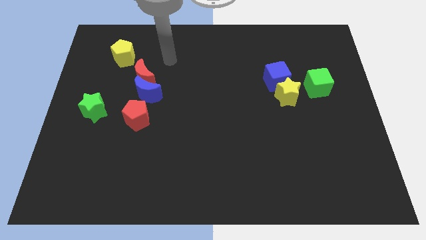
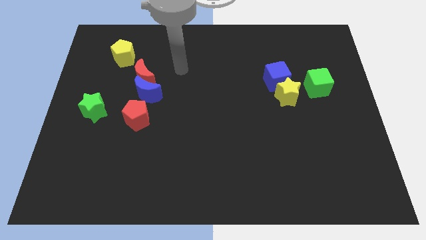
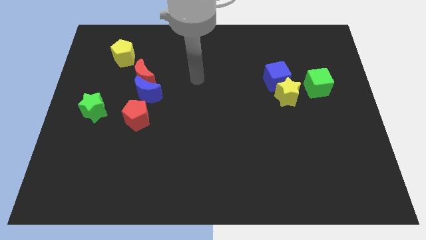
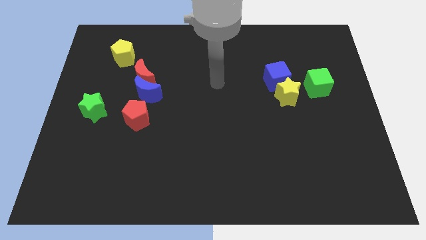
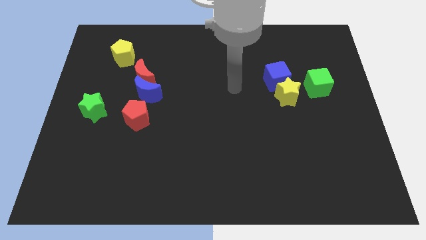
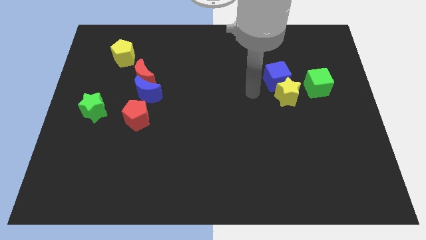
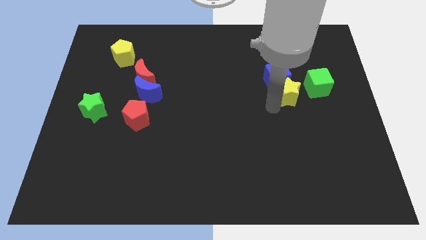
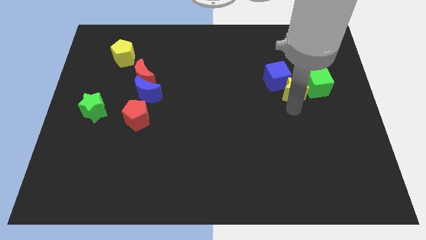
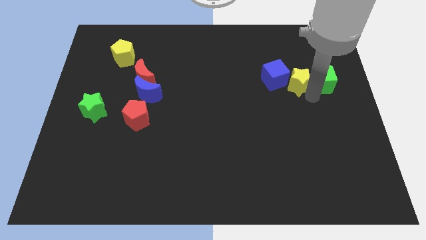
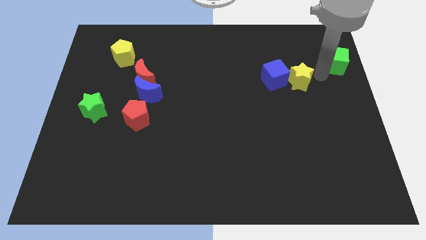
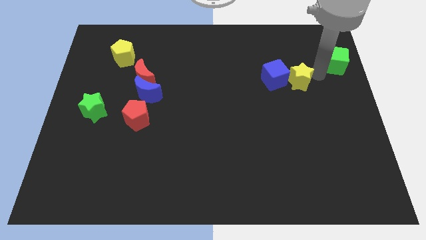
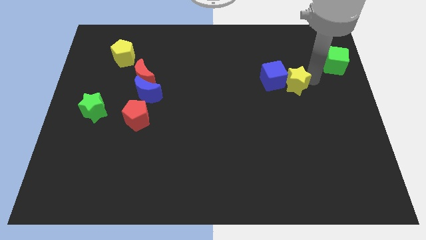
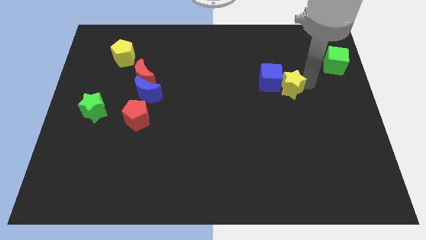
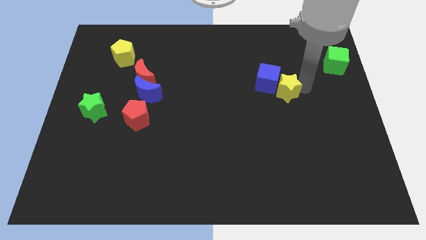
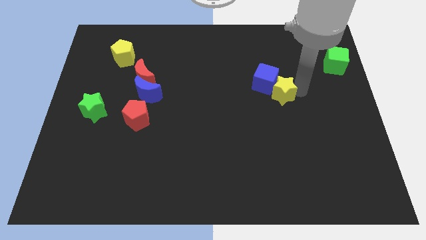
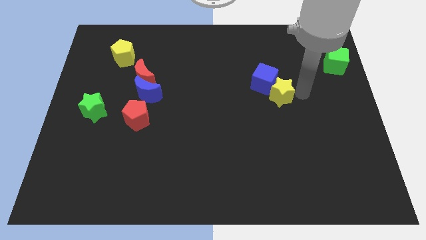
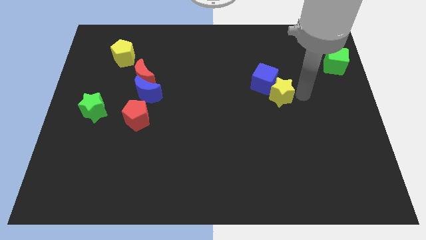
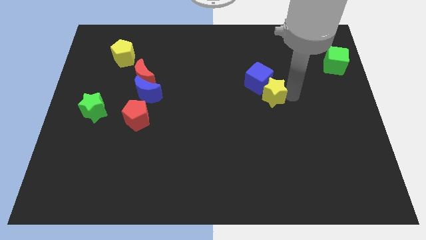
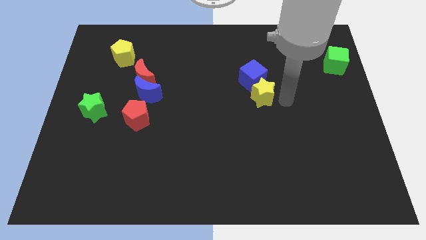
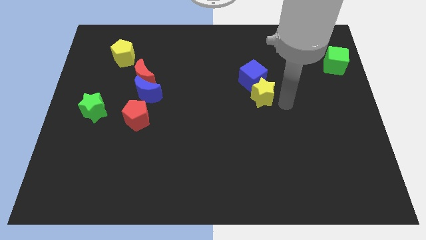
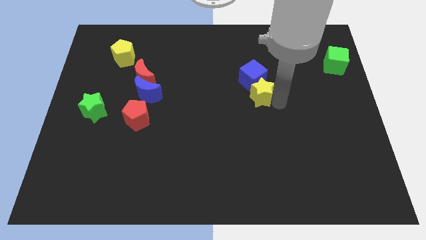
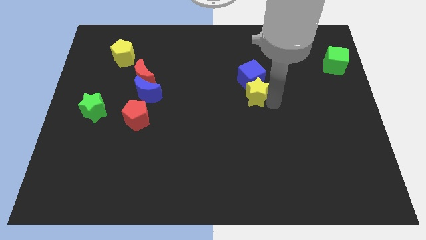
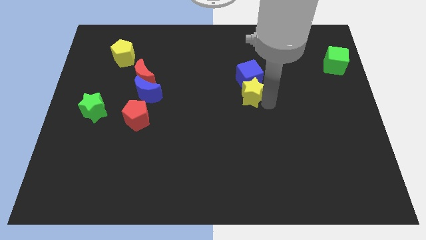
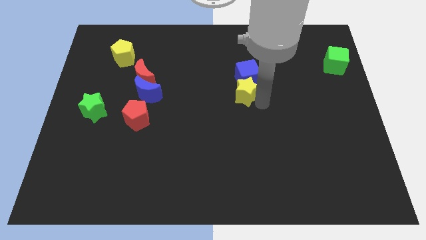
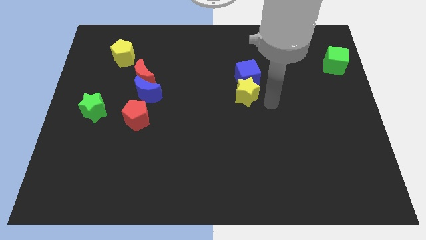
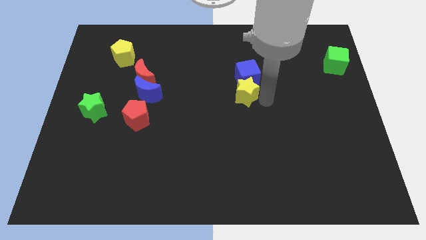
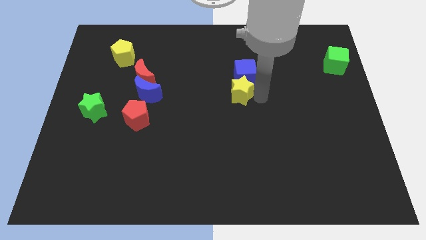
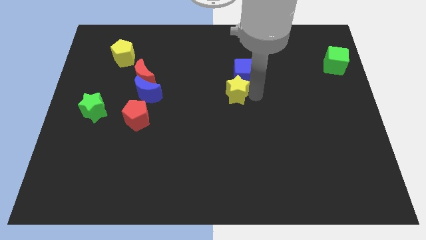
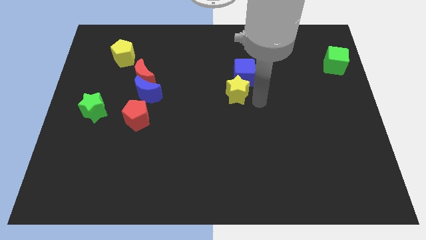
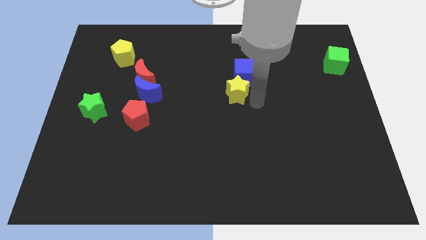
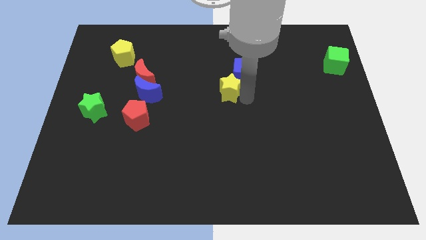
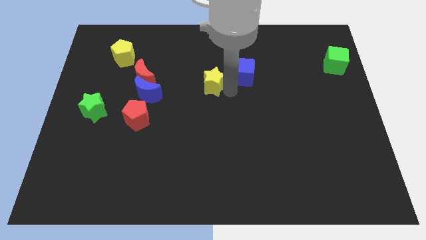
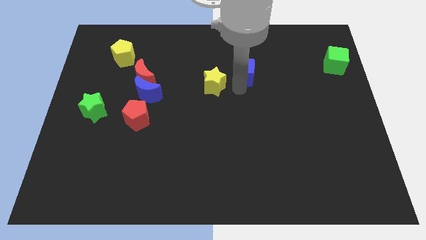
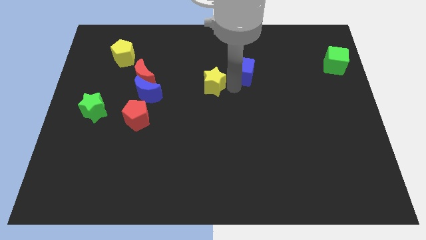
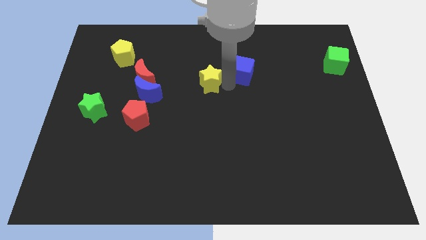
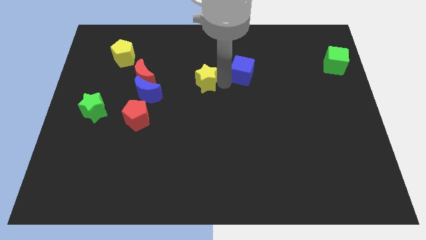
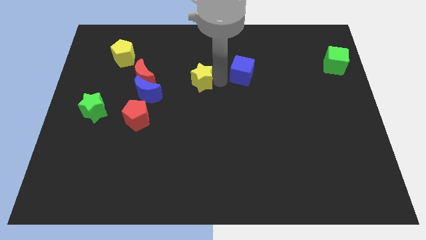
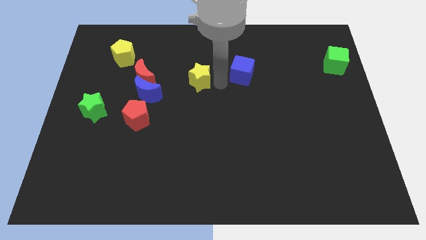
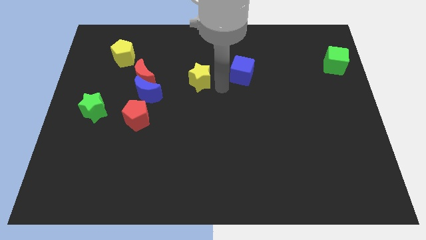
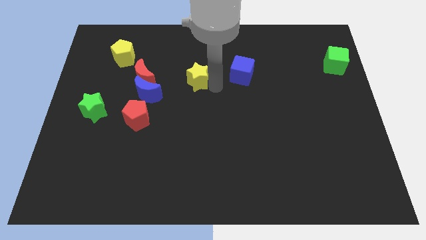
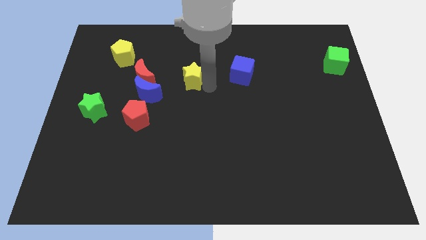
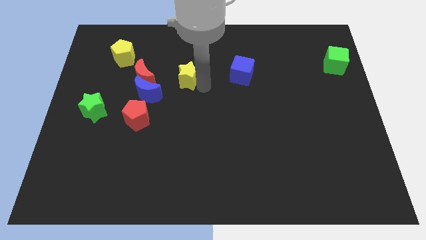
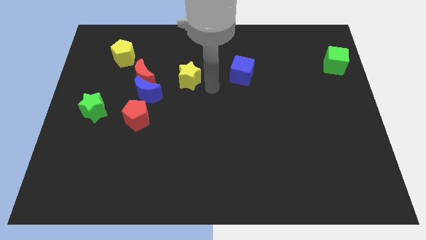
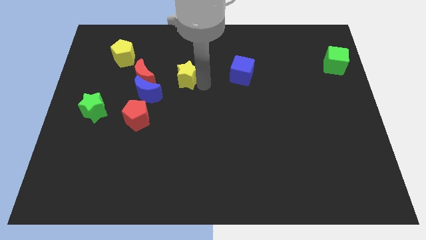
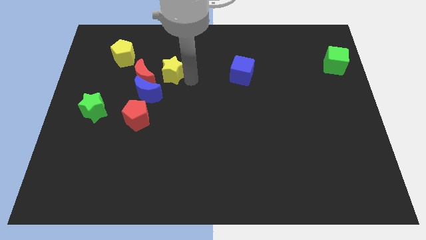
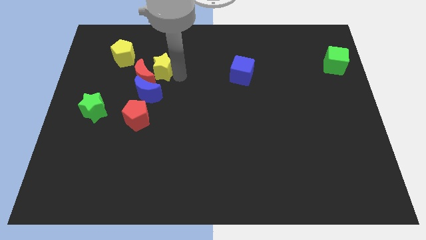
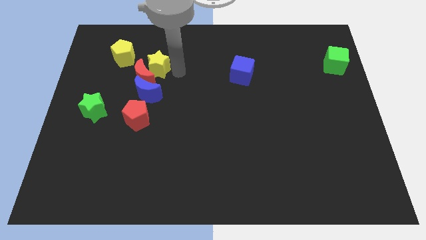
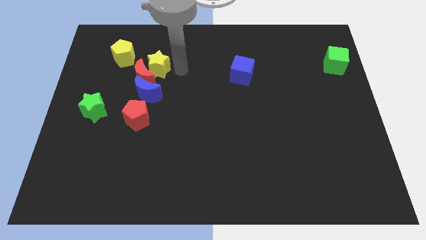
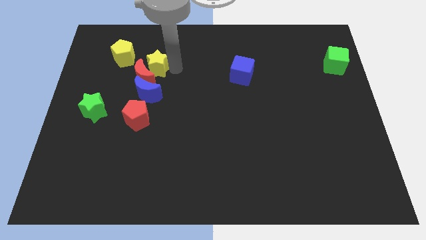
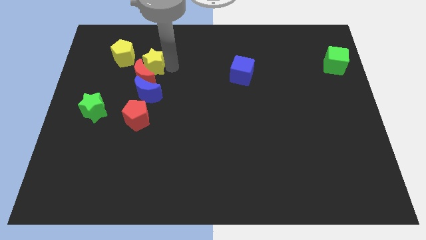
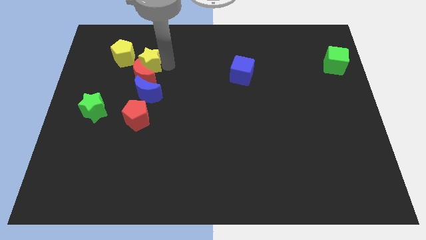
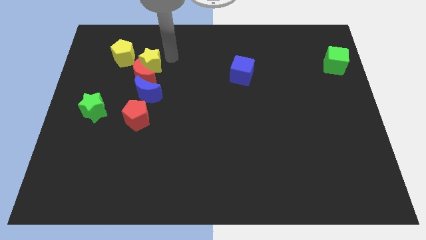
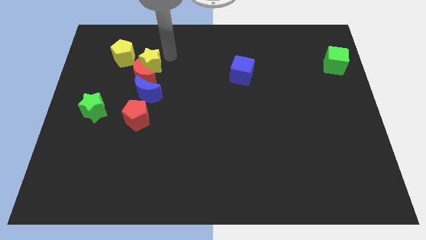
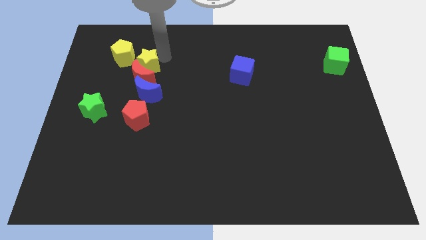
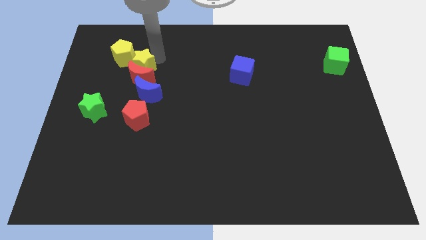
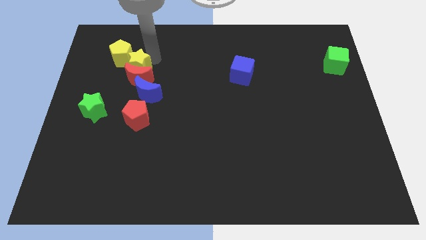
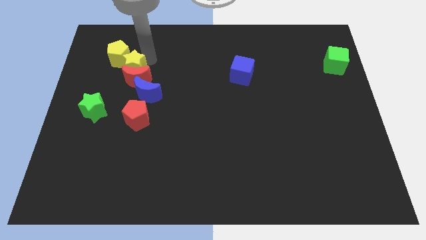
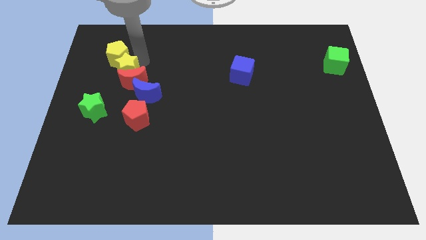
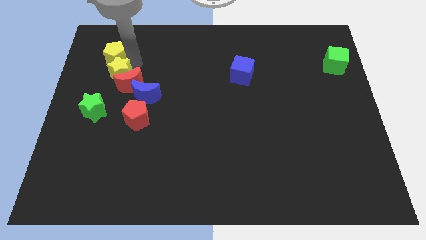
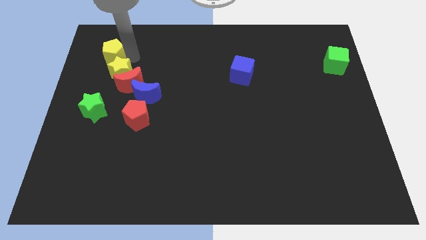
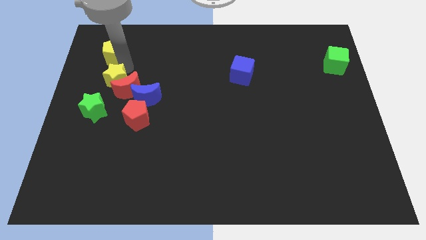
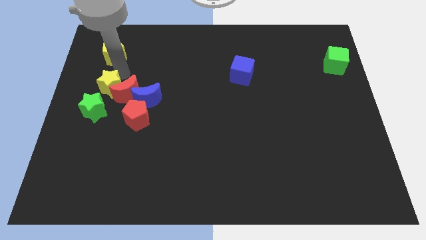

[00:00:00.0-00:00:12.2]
push the yellow star diagonally down and to the left of the red moon

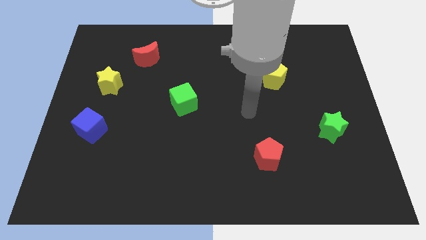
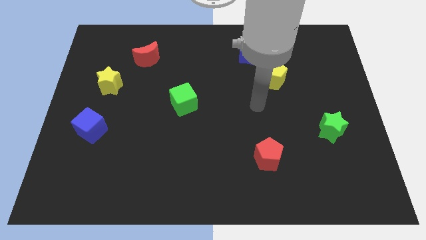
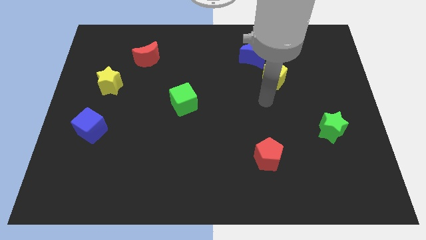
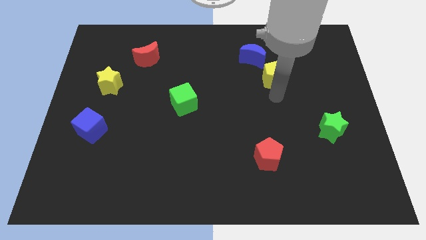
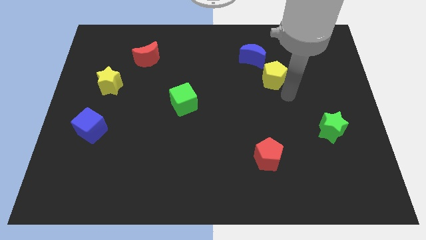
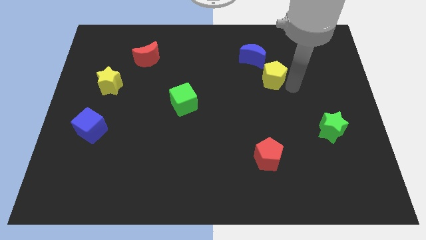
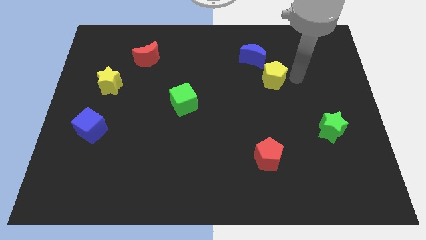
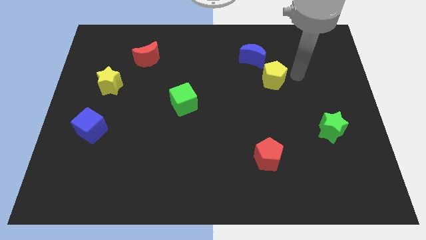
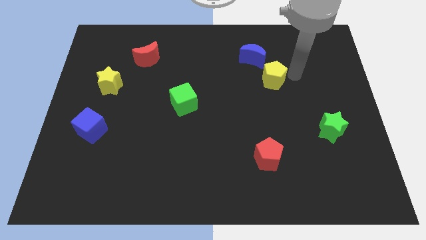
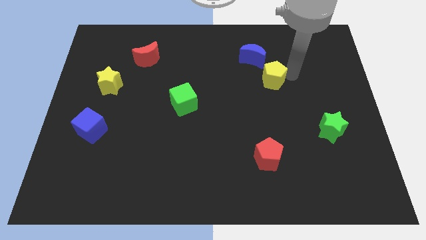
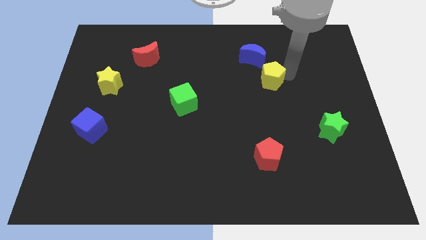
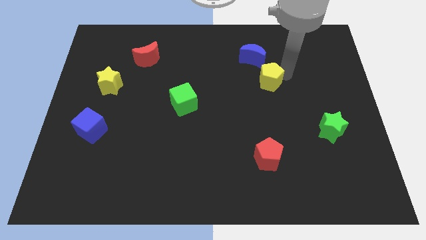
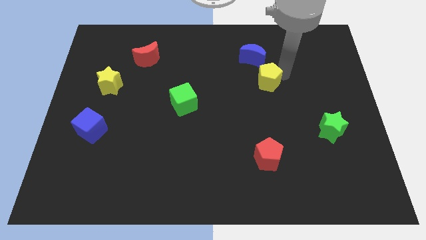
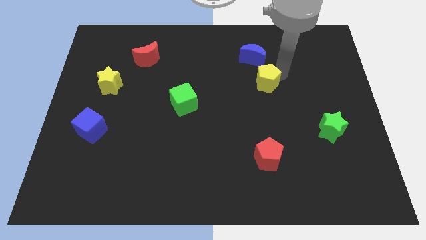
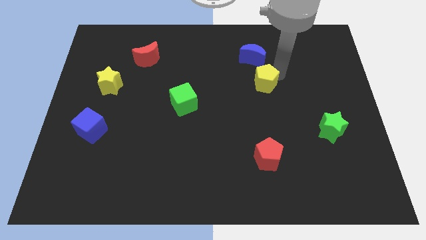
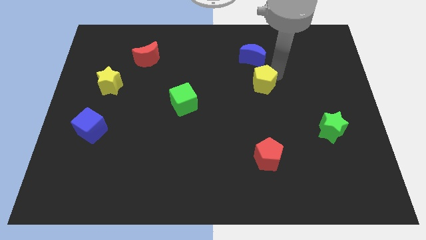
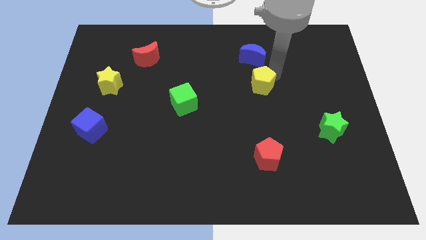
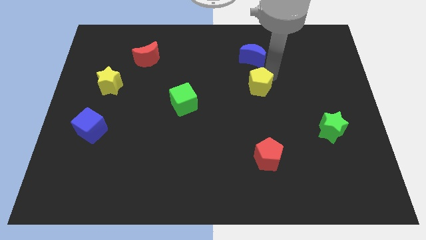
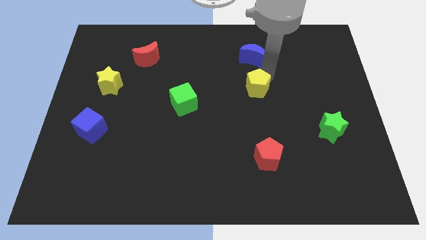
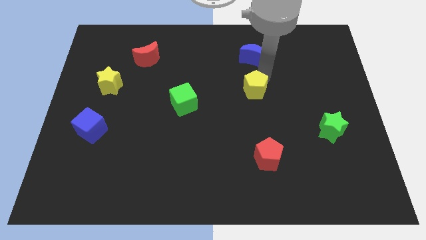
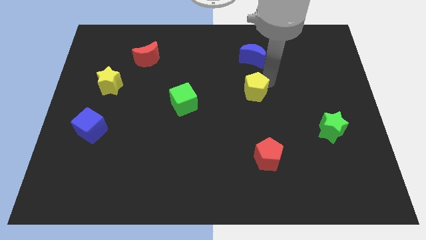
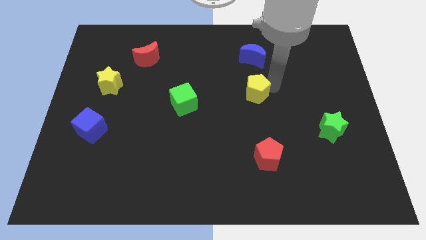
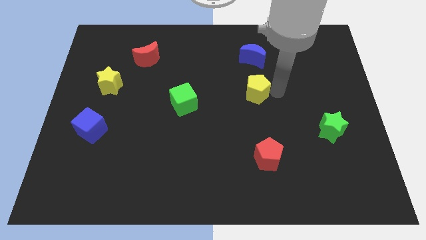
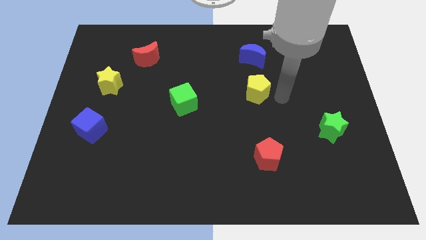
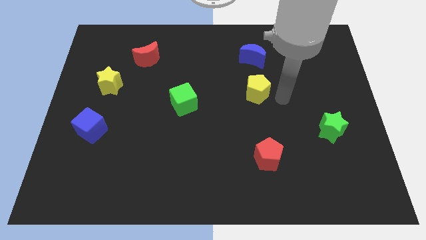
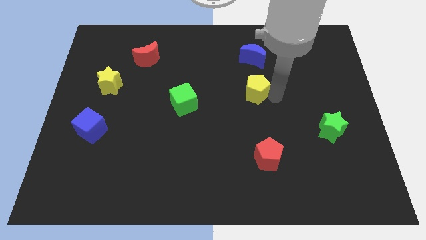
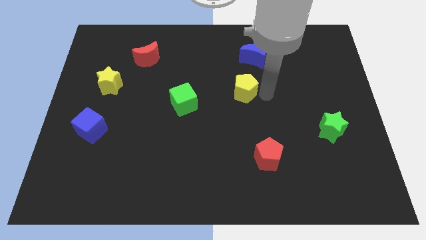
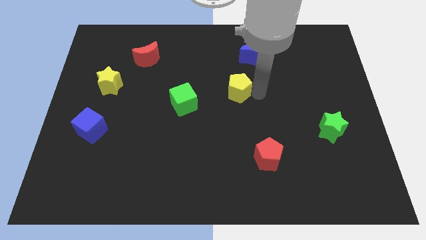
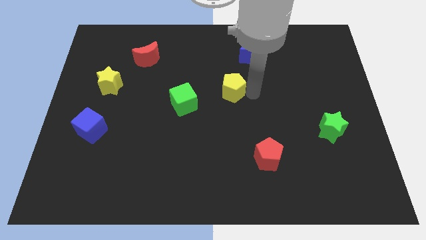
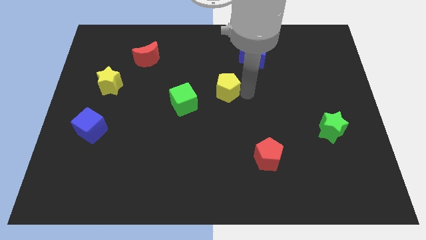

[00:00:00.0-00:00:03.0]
push the yellow pentagon to the top right of the green cube
